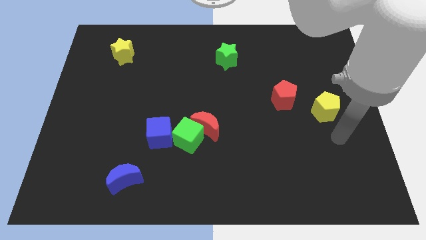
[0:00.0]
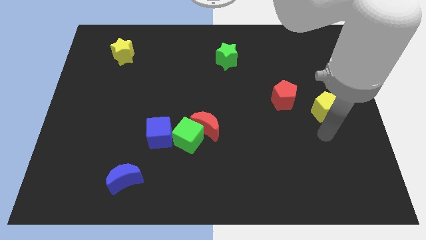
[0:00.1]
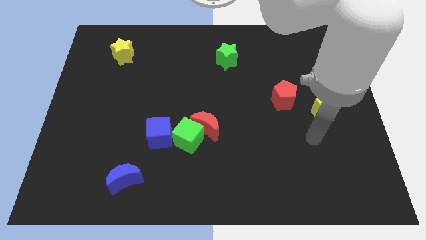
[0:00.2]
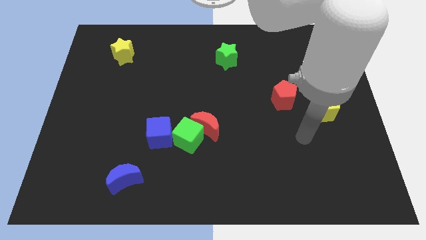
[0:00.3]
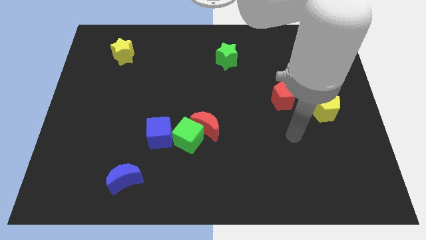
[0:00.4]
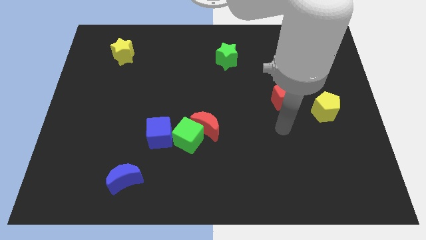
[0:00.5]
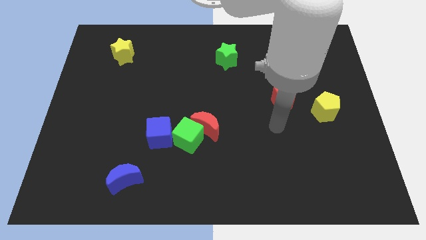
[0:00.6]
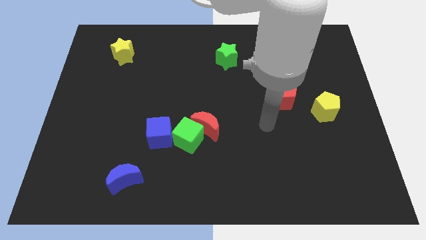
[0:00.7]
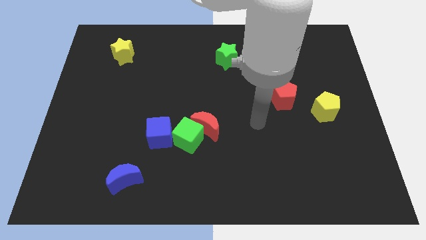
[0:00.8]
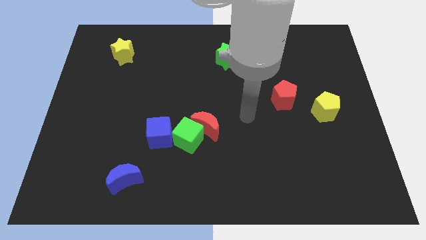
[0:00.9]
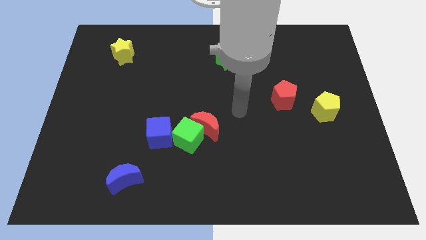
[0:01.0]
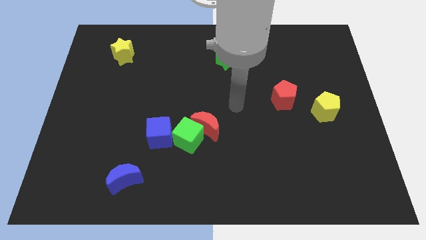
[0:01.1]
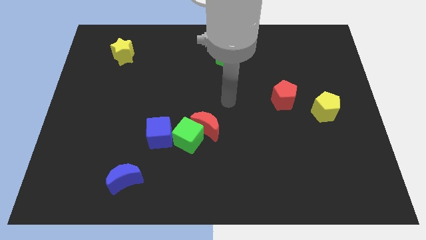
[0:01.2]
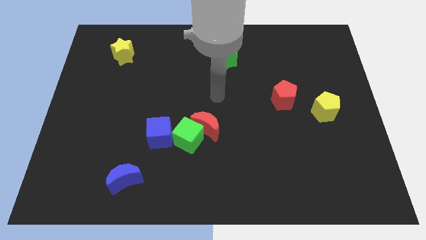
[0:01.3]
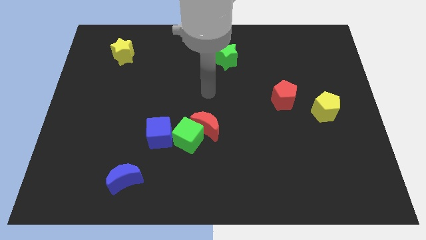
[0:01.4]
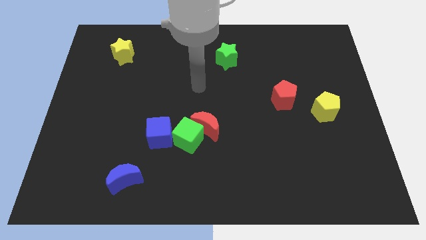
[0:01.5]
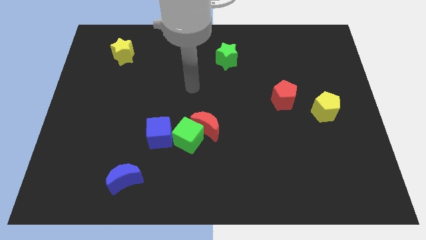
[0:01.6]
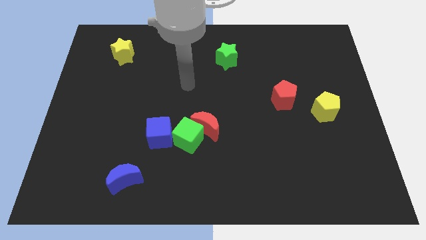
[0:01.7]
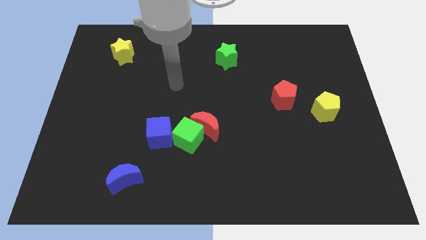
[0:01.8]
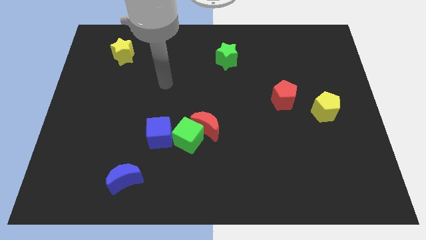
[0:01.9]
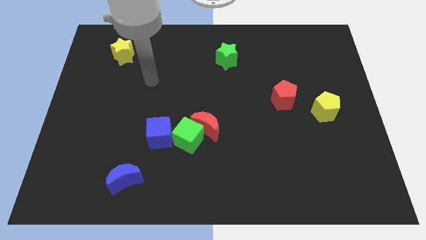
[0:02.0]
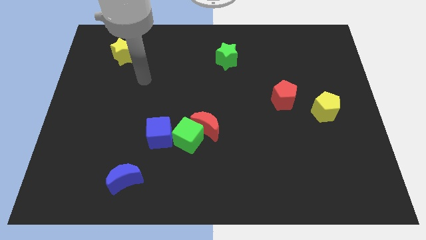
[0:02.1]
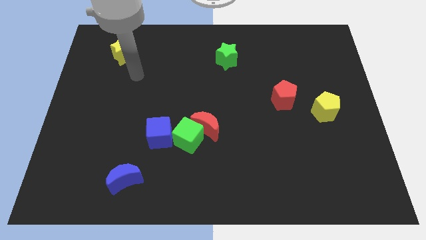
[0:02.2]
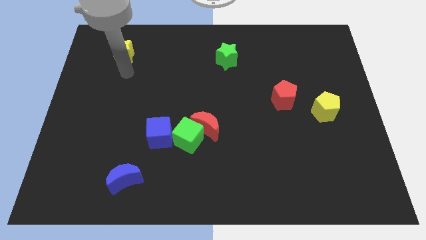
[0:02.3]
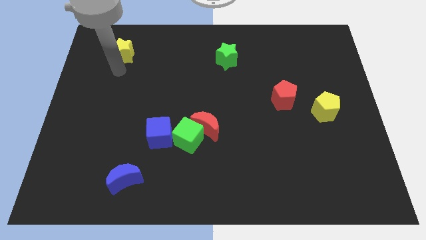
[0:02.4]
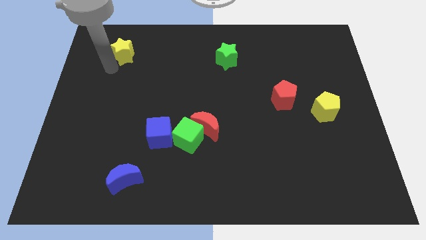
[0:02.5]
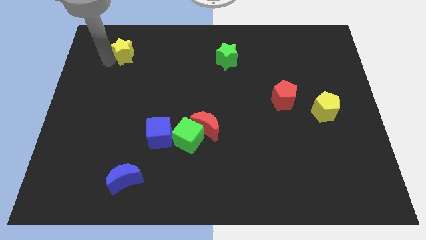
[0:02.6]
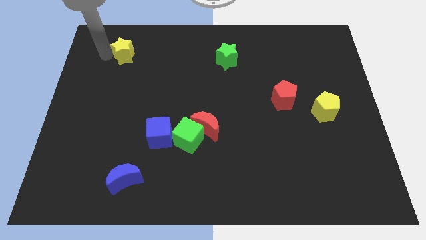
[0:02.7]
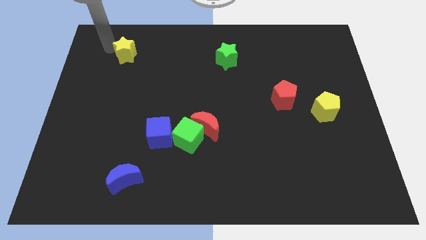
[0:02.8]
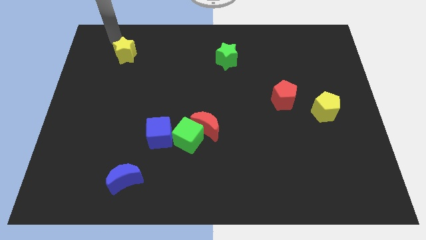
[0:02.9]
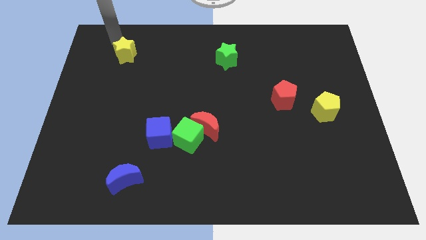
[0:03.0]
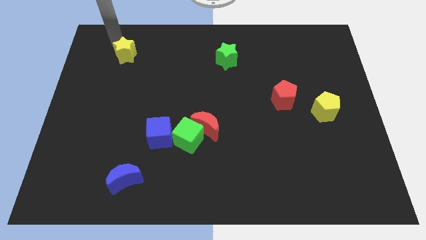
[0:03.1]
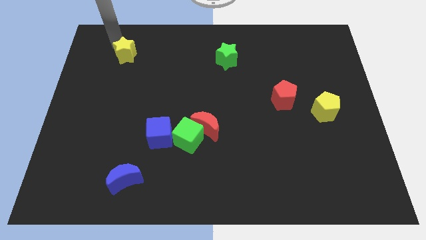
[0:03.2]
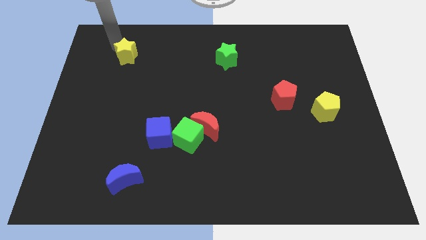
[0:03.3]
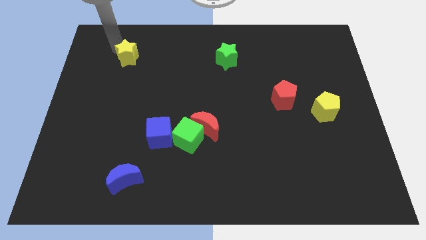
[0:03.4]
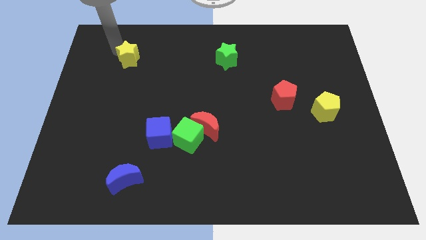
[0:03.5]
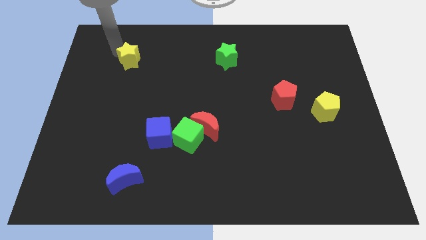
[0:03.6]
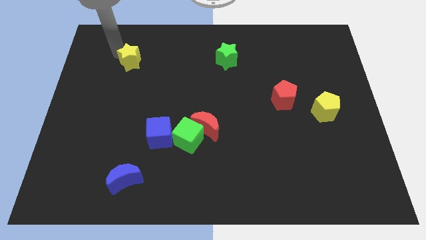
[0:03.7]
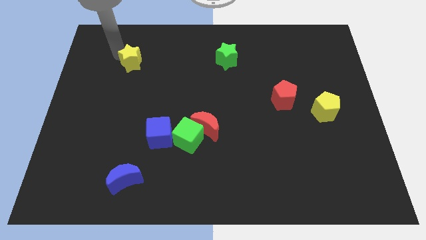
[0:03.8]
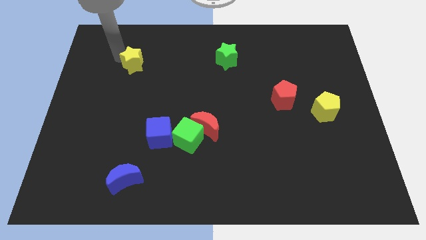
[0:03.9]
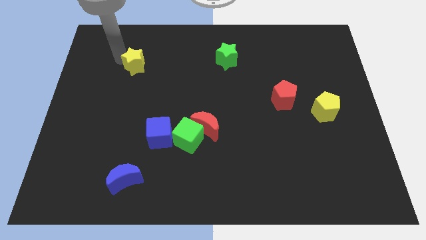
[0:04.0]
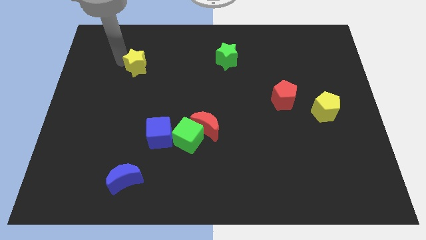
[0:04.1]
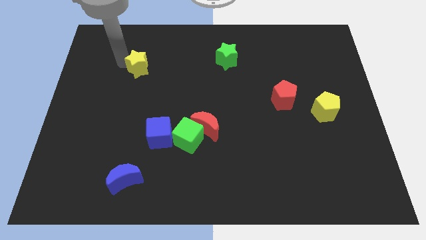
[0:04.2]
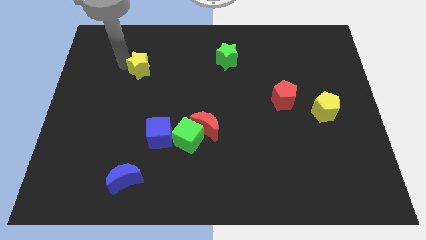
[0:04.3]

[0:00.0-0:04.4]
push the yellow star downwards and to the right diagonally a little bit

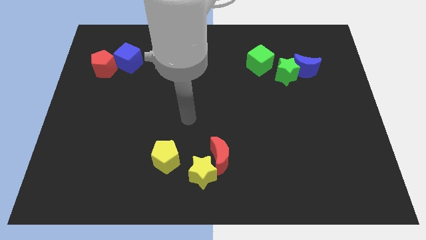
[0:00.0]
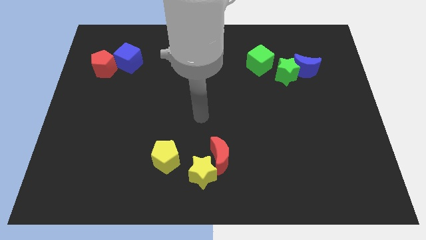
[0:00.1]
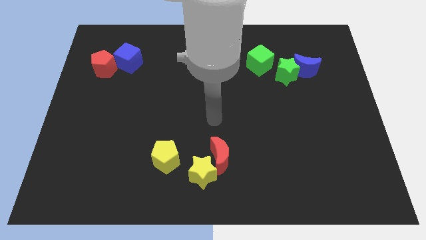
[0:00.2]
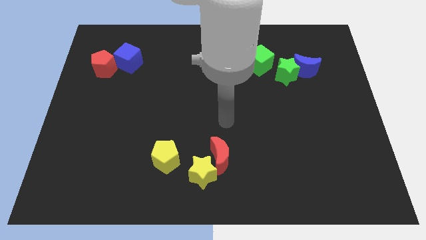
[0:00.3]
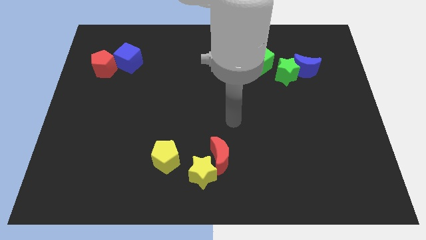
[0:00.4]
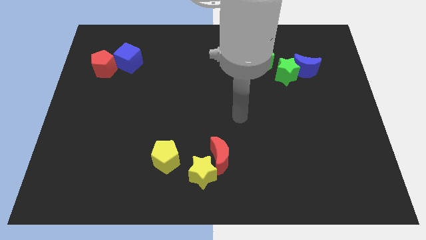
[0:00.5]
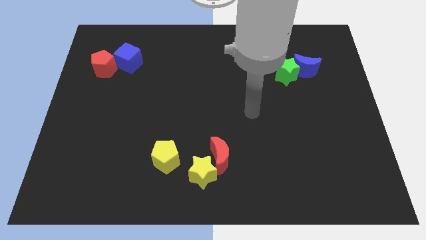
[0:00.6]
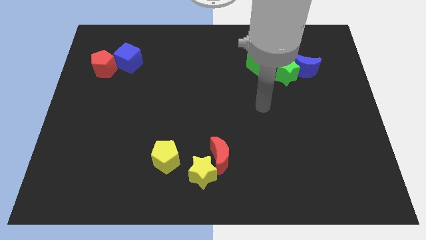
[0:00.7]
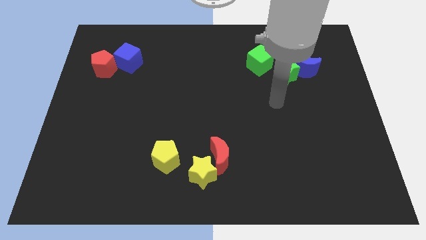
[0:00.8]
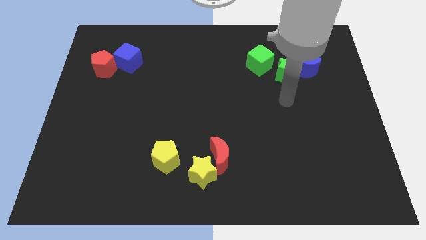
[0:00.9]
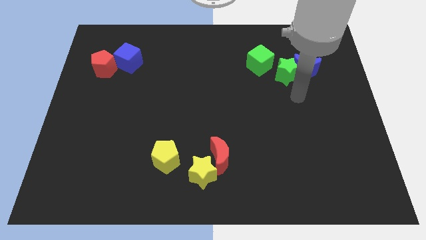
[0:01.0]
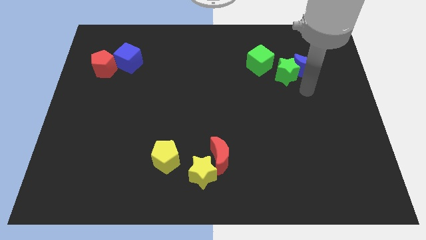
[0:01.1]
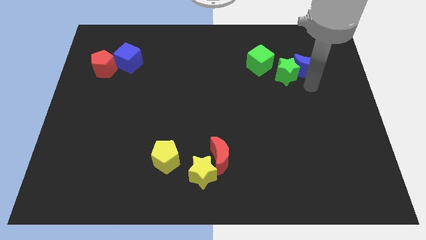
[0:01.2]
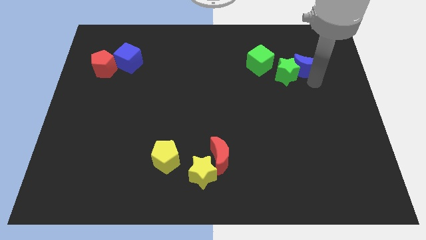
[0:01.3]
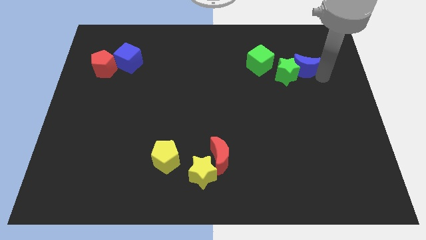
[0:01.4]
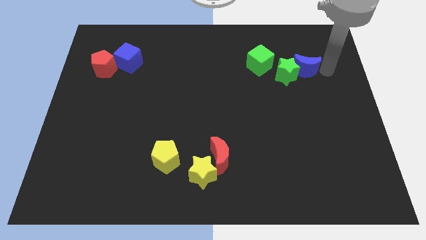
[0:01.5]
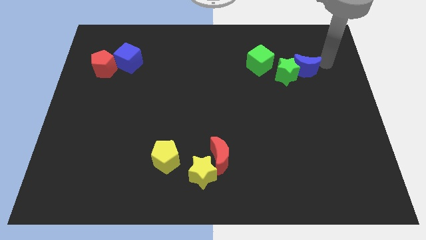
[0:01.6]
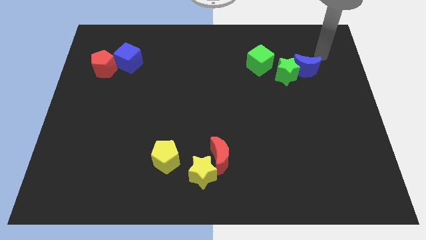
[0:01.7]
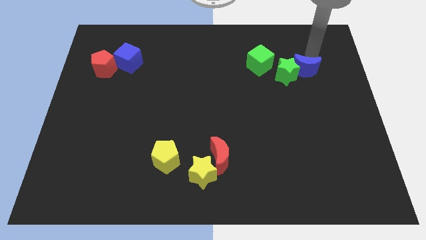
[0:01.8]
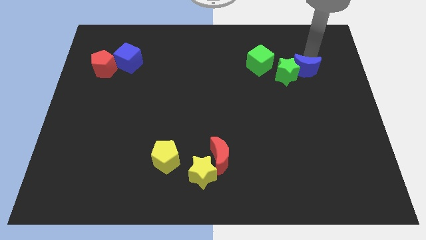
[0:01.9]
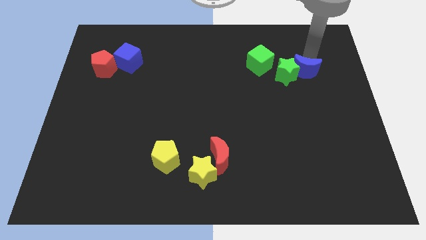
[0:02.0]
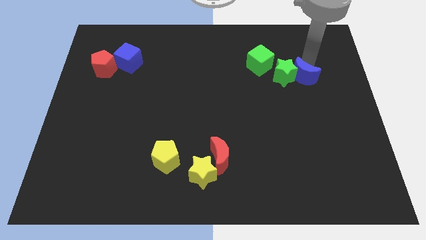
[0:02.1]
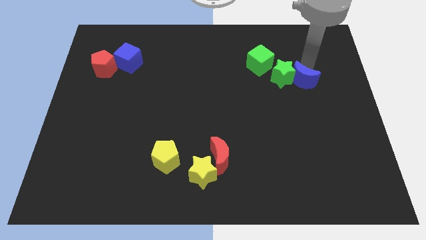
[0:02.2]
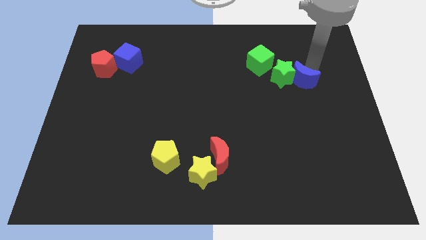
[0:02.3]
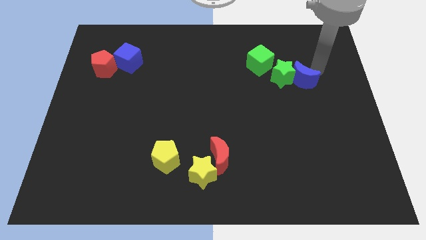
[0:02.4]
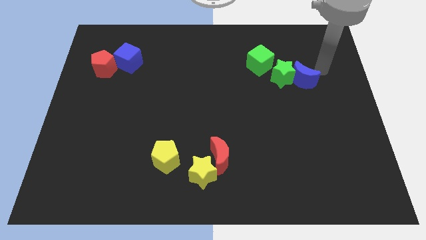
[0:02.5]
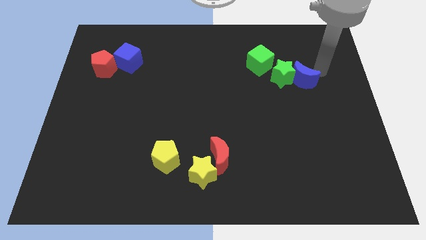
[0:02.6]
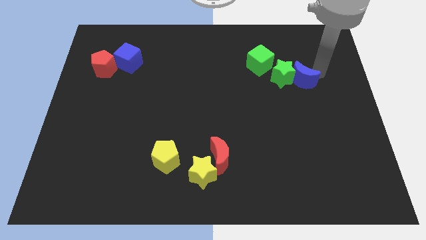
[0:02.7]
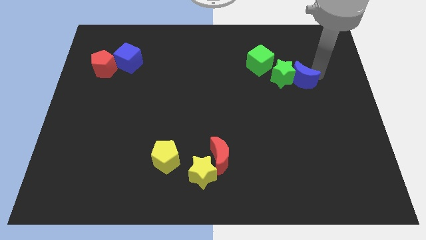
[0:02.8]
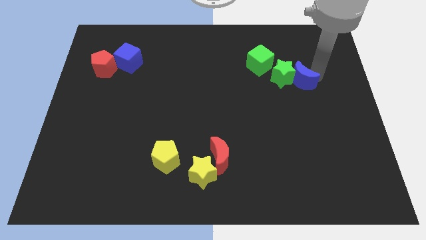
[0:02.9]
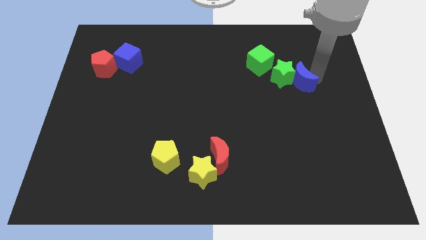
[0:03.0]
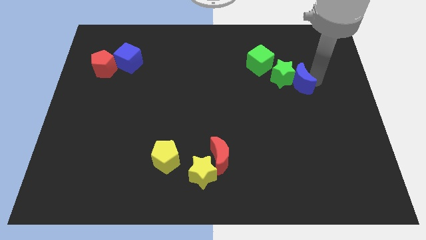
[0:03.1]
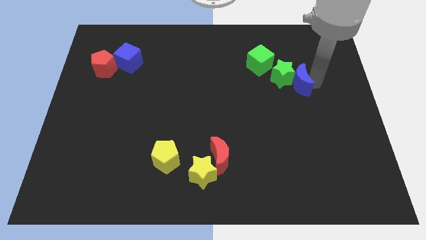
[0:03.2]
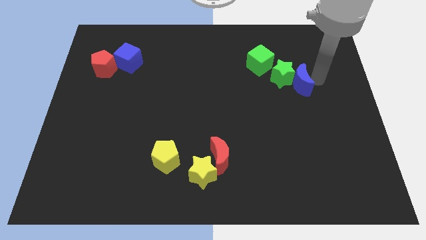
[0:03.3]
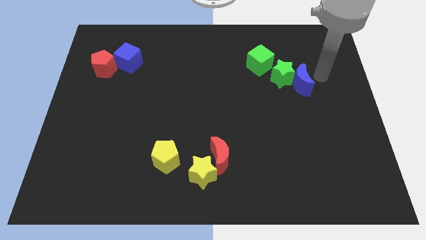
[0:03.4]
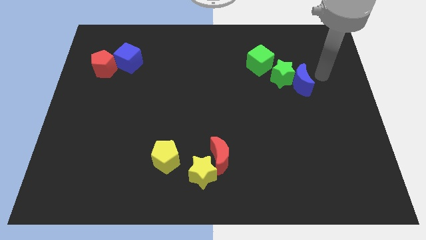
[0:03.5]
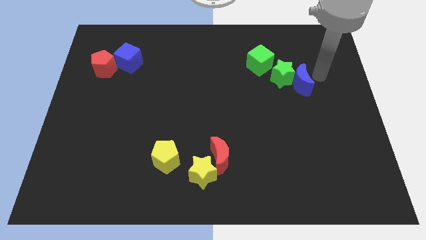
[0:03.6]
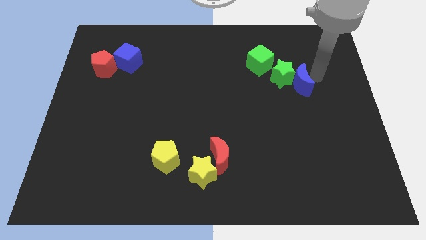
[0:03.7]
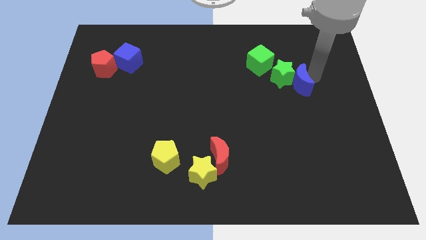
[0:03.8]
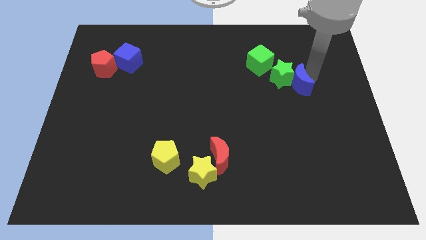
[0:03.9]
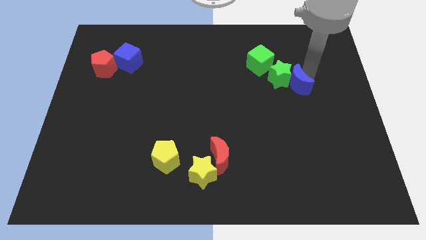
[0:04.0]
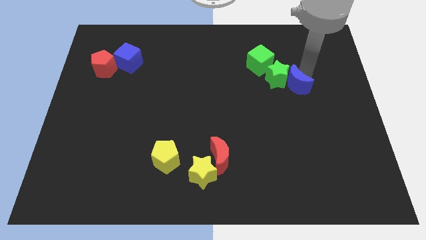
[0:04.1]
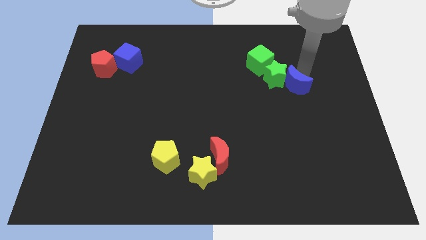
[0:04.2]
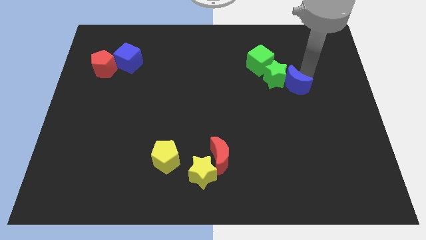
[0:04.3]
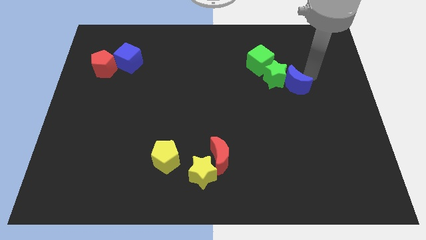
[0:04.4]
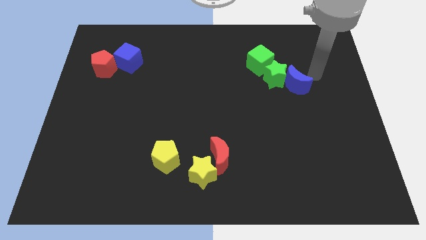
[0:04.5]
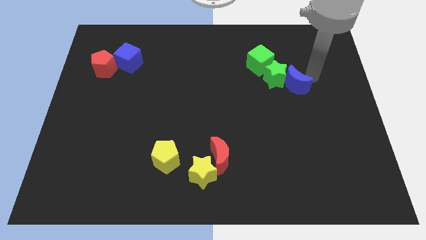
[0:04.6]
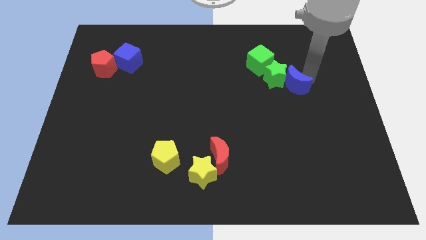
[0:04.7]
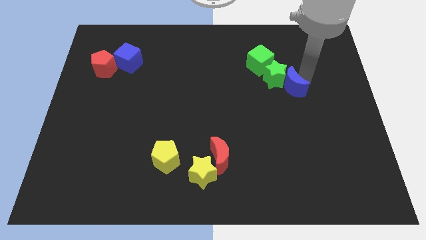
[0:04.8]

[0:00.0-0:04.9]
slightly push the blue moon down and then to the left
